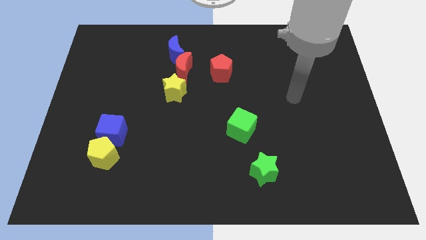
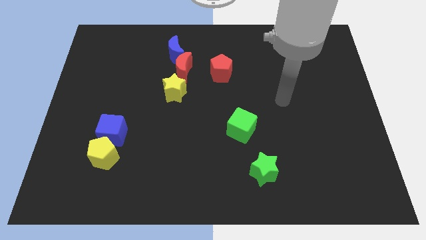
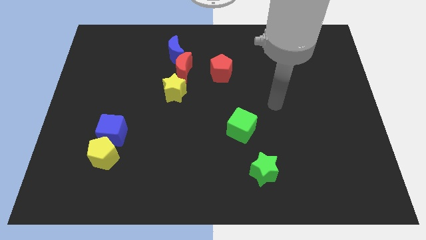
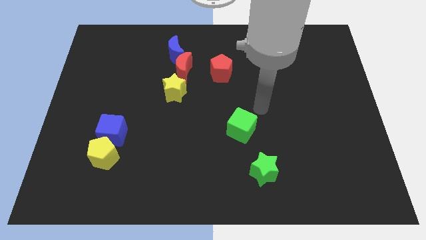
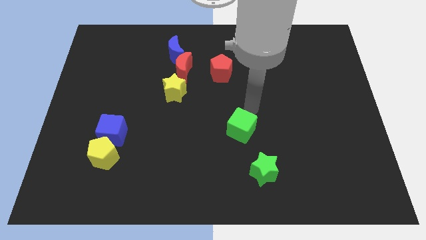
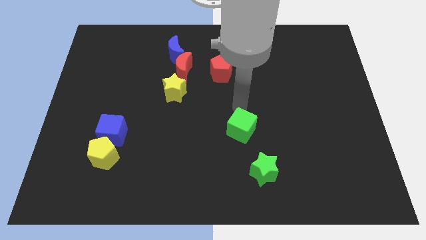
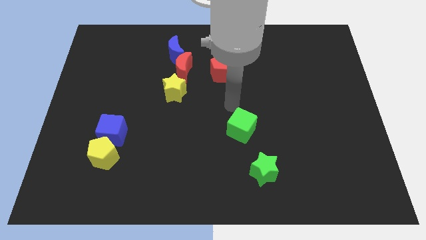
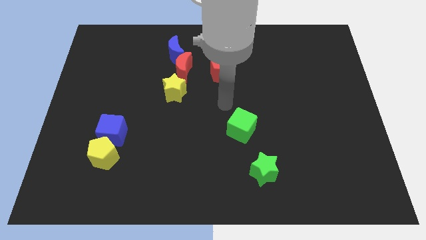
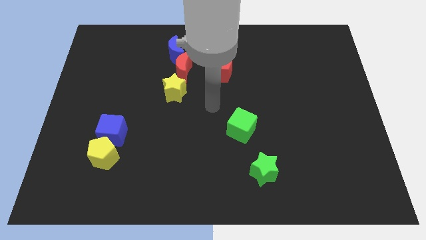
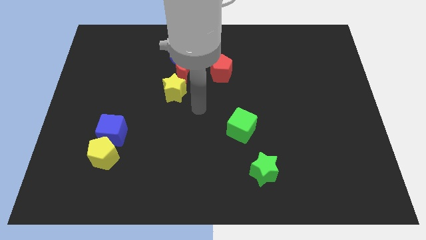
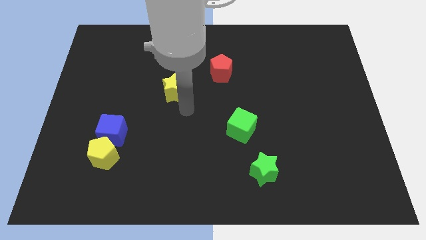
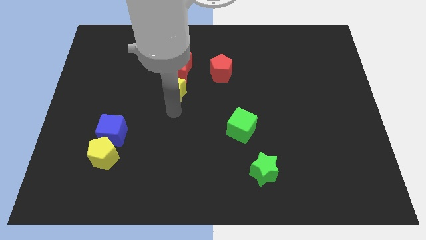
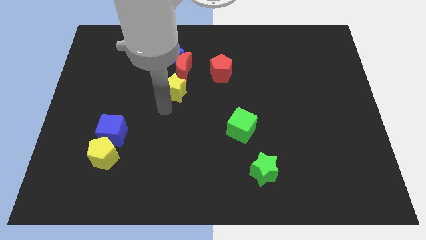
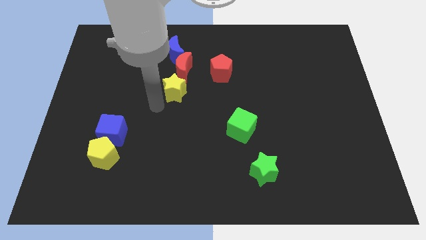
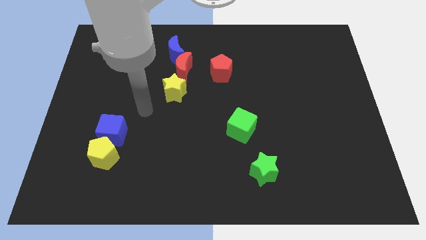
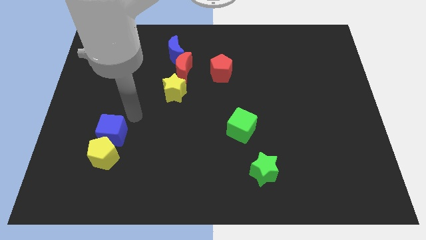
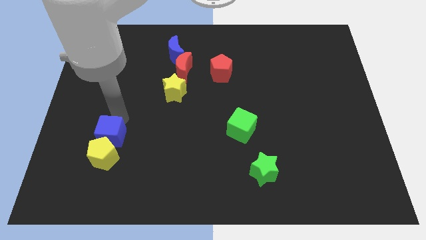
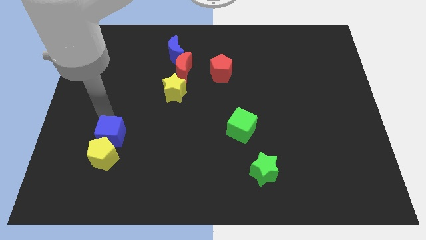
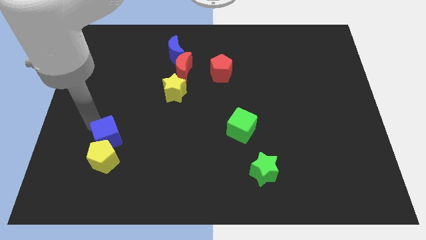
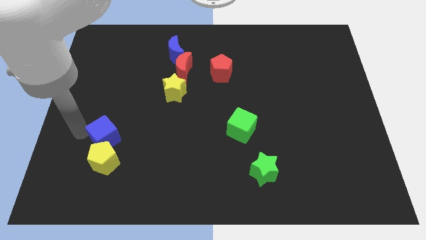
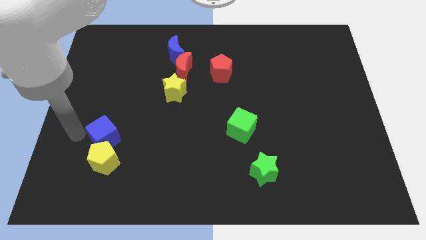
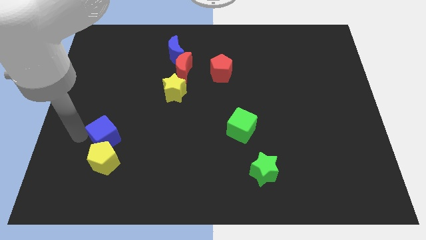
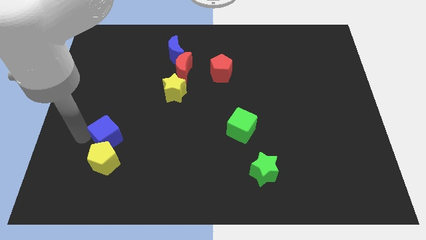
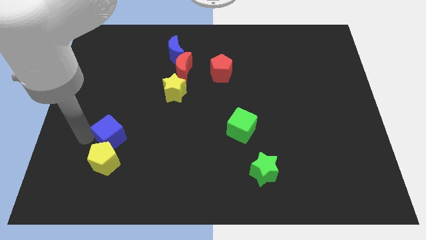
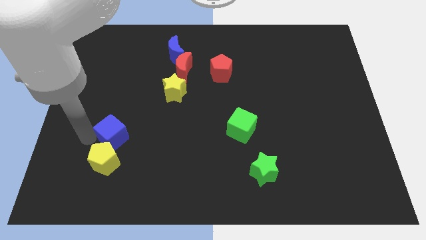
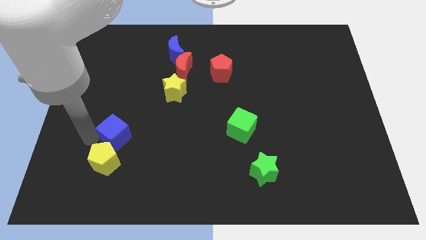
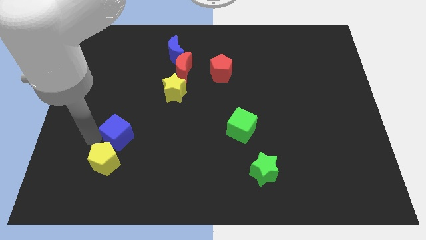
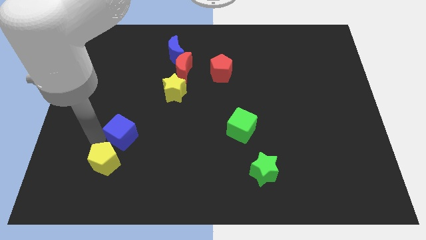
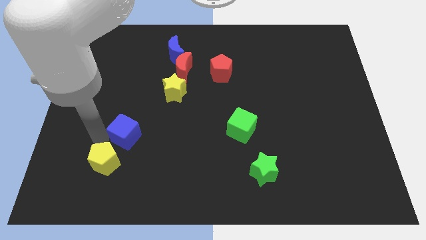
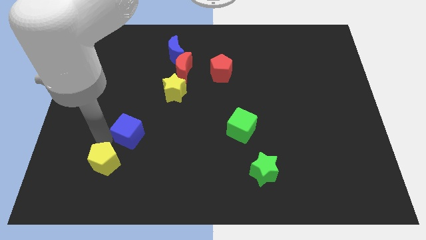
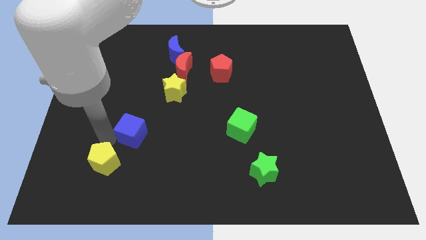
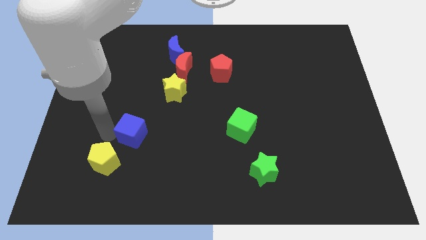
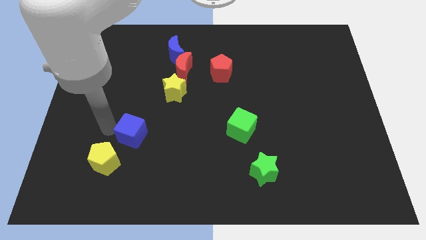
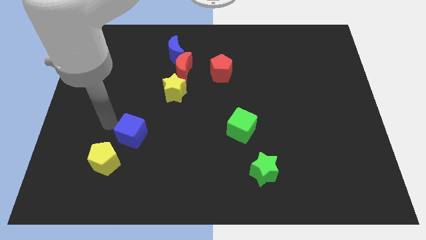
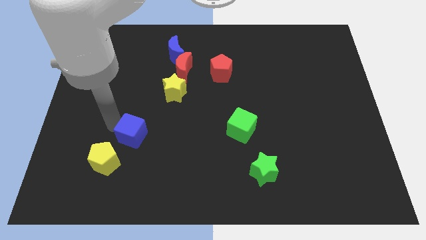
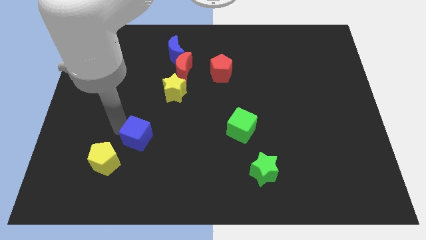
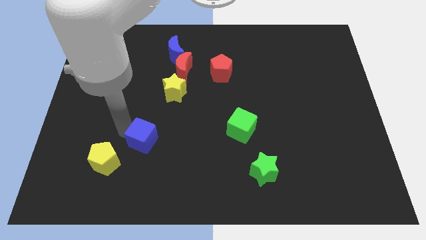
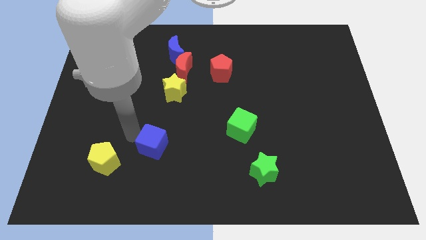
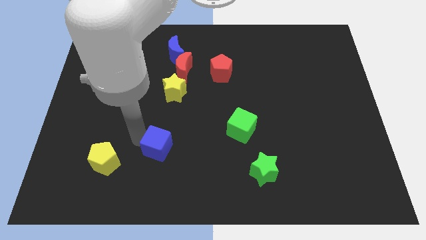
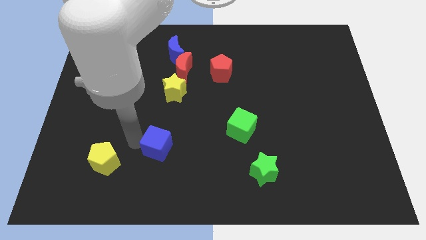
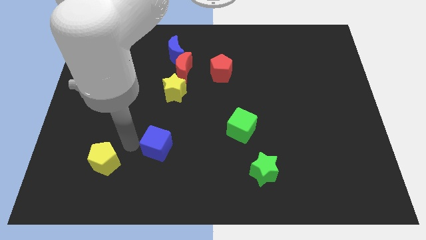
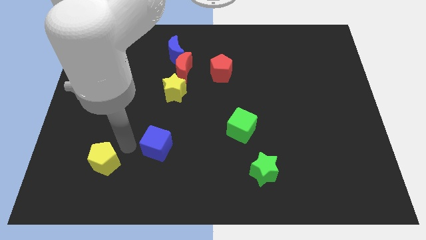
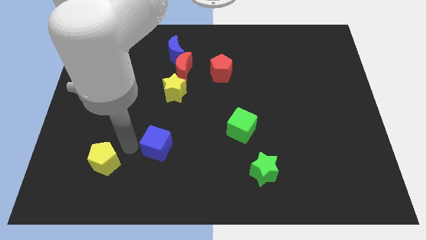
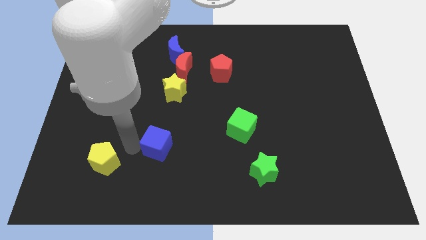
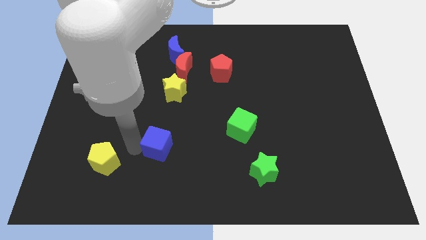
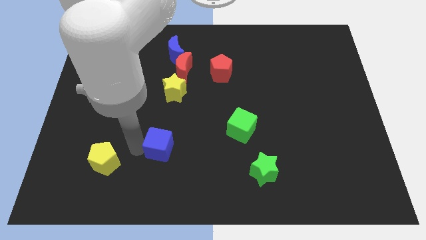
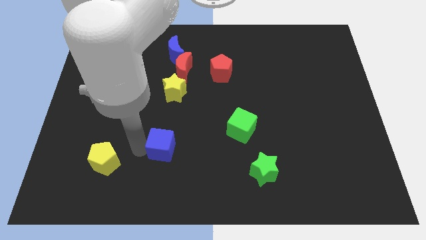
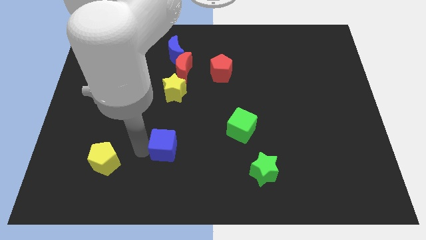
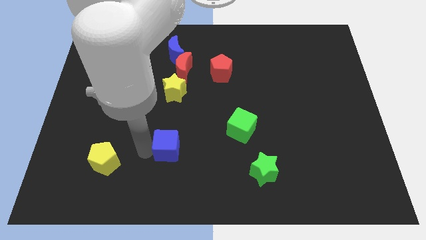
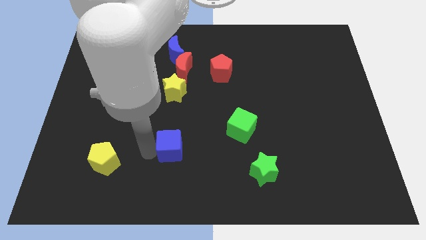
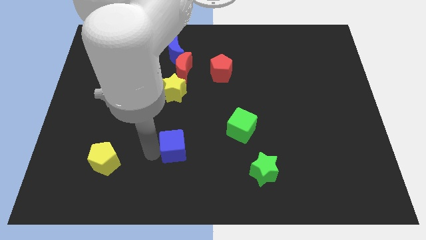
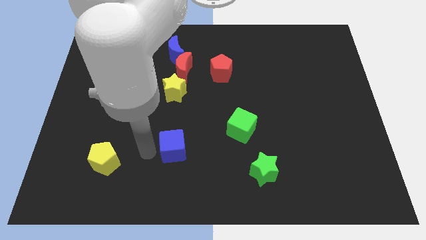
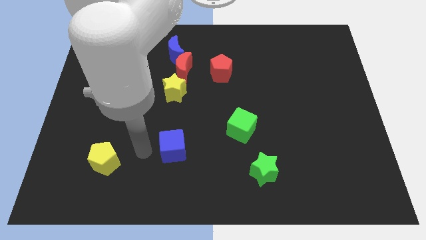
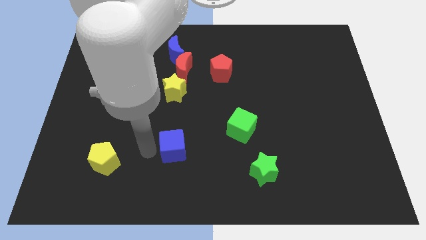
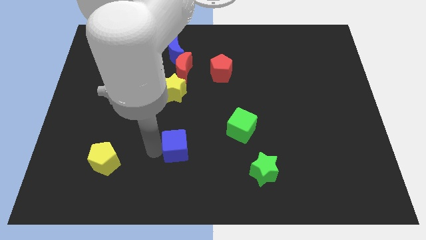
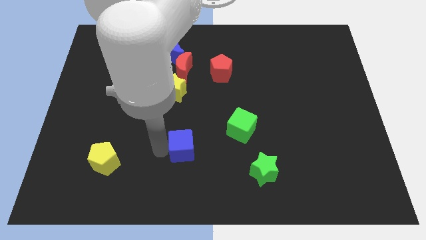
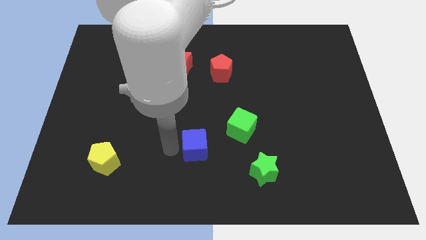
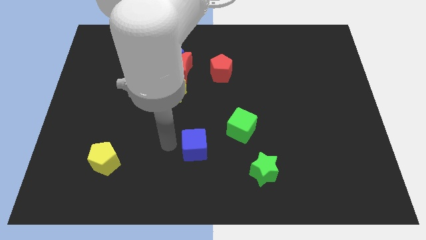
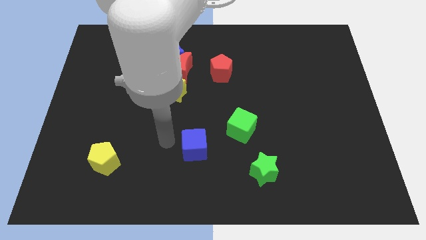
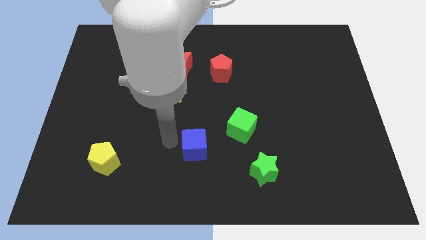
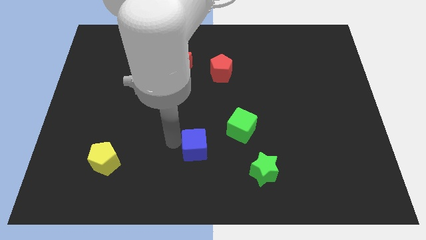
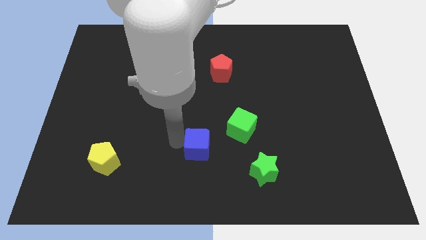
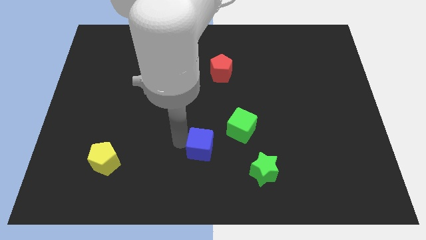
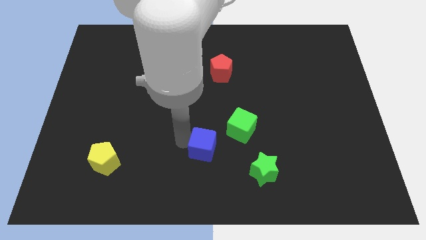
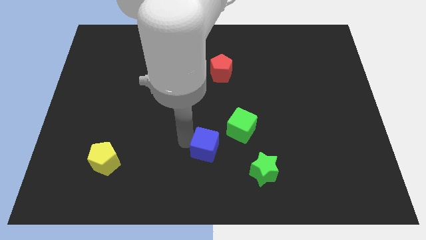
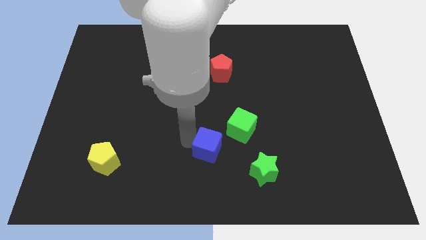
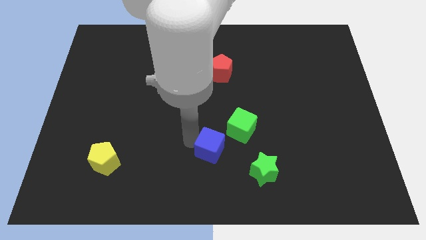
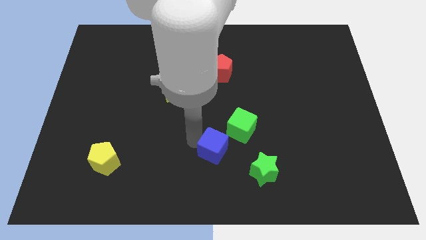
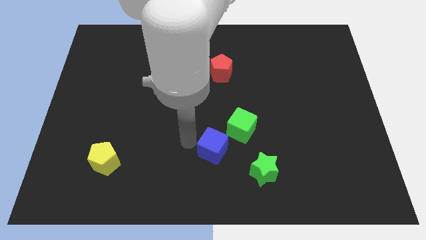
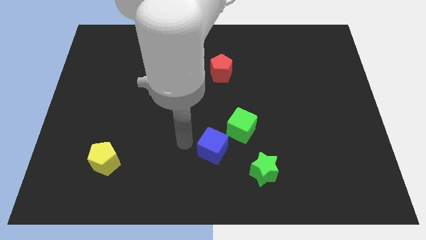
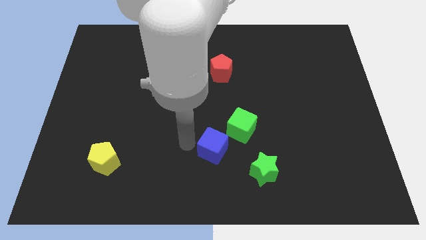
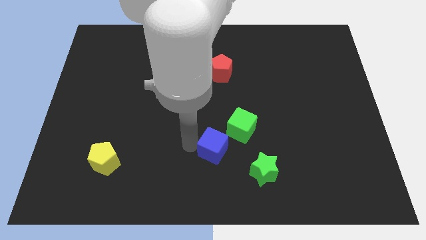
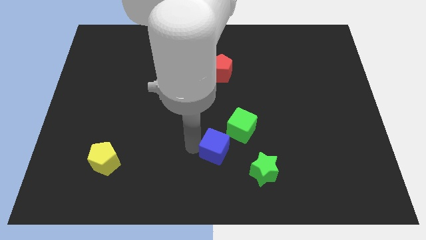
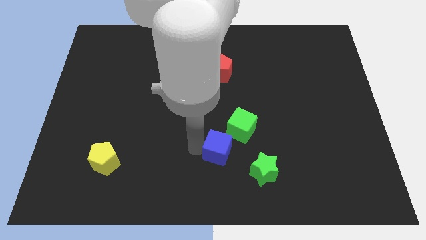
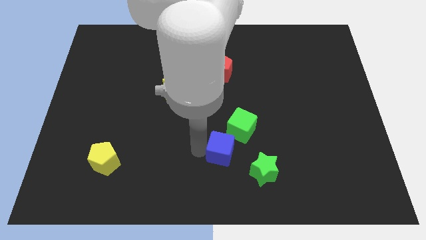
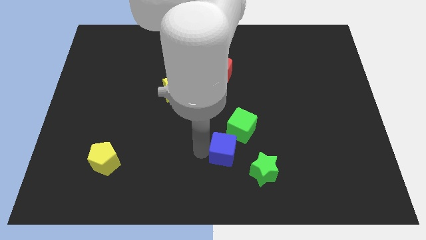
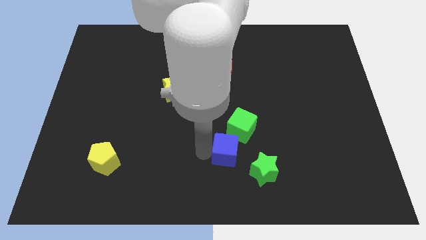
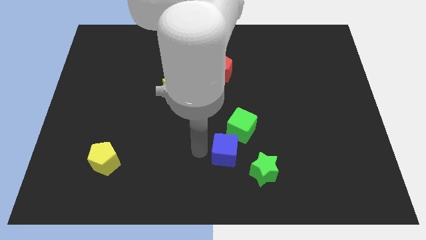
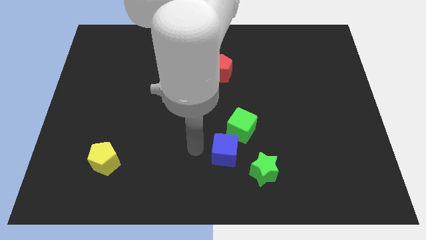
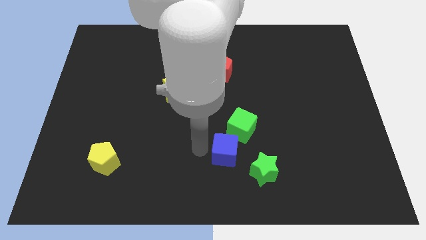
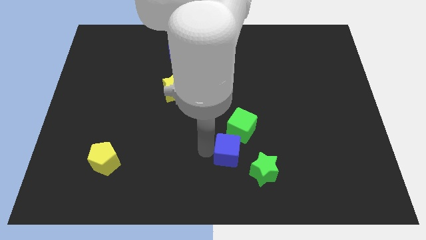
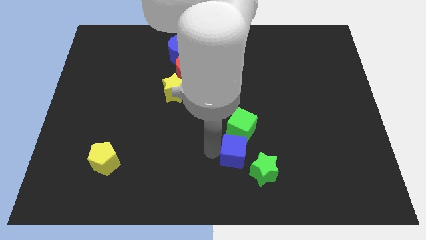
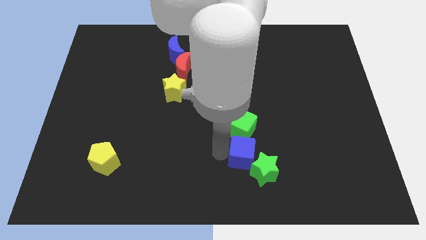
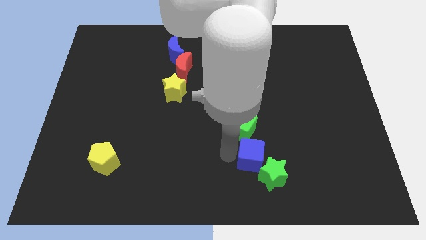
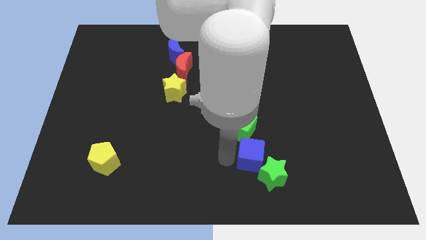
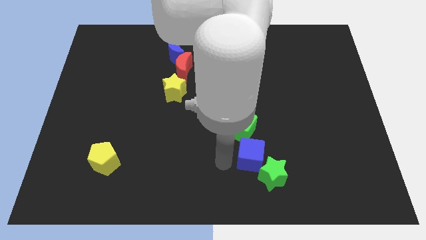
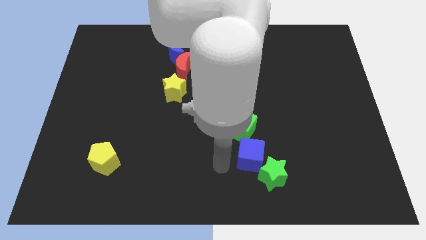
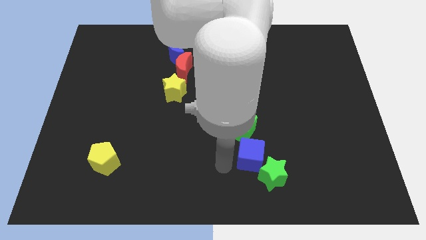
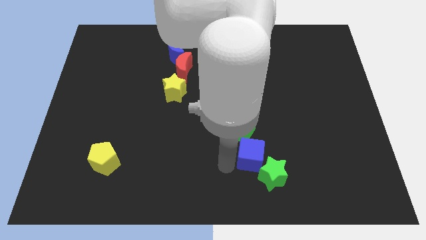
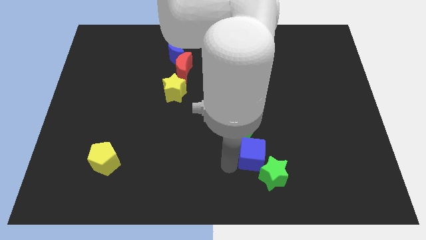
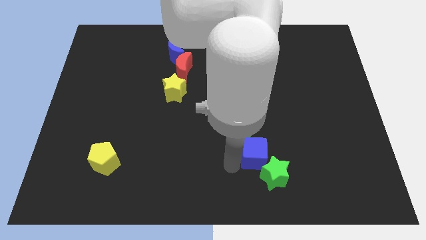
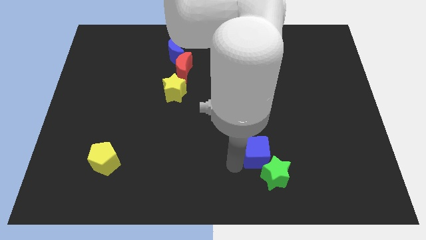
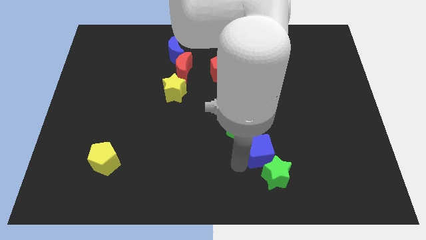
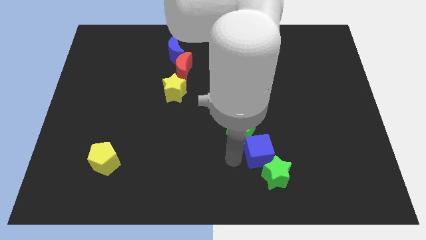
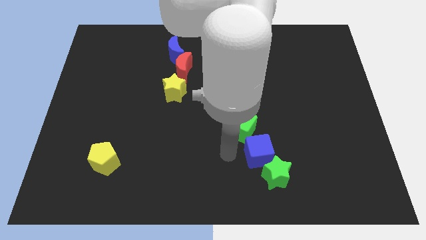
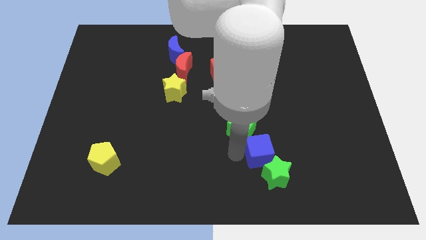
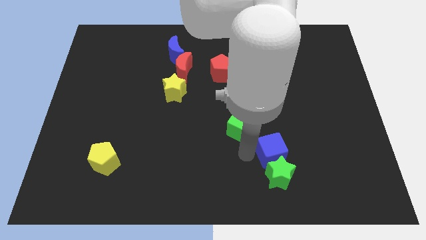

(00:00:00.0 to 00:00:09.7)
put the blue cube to the top right side of the green star
